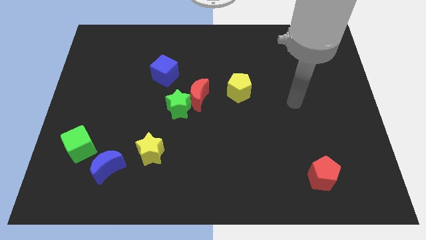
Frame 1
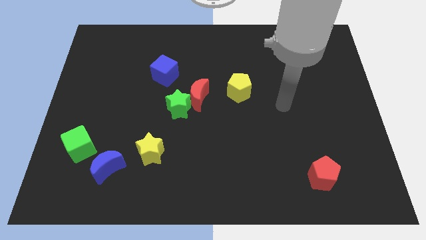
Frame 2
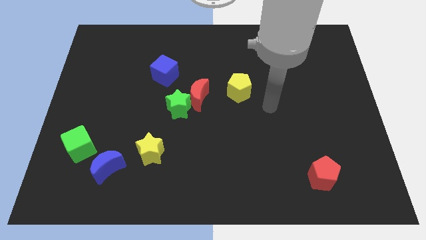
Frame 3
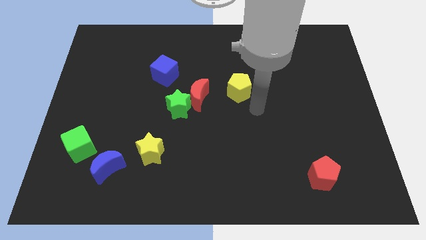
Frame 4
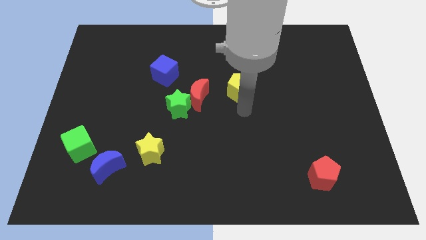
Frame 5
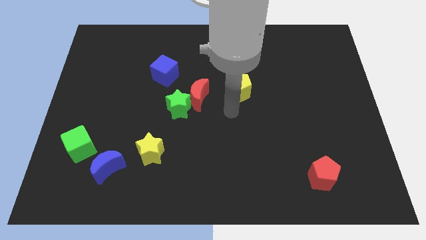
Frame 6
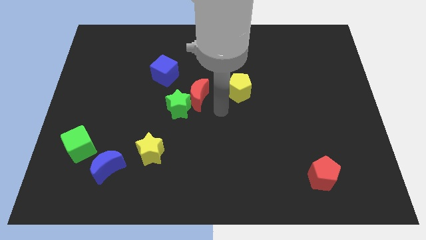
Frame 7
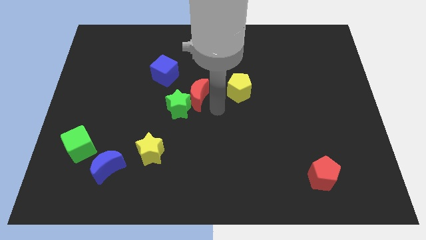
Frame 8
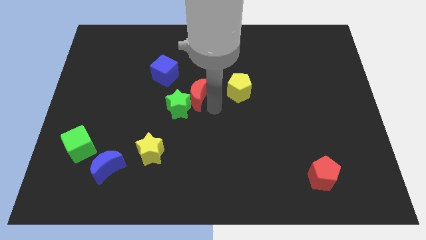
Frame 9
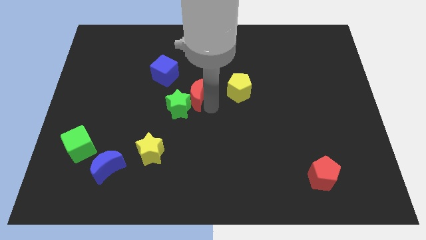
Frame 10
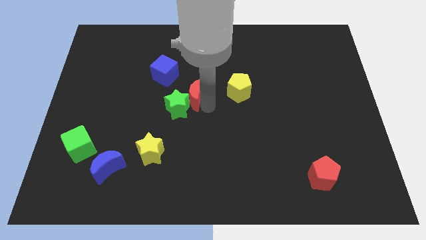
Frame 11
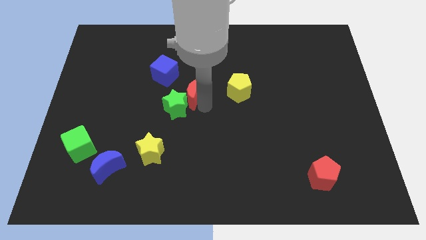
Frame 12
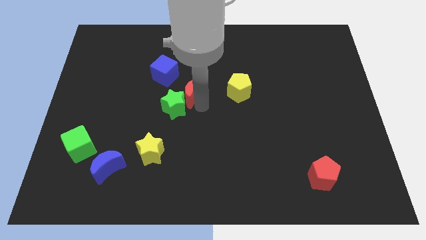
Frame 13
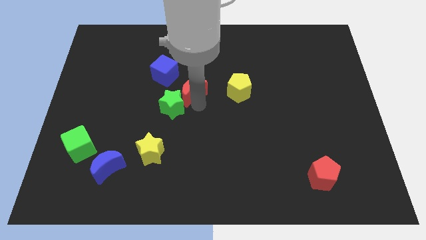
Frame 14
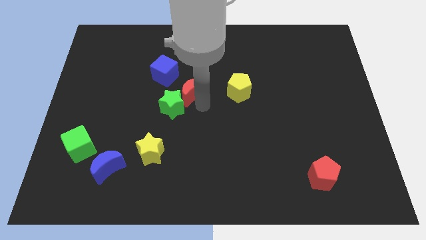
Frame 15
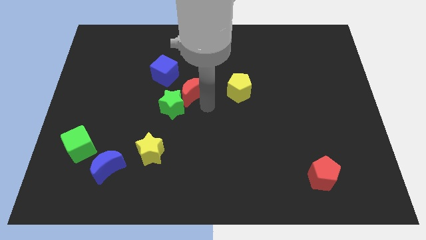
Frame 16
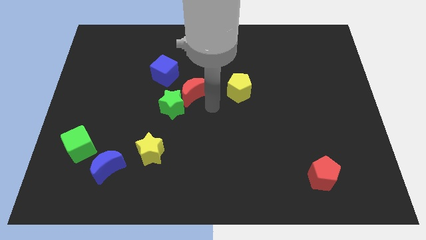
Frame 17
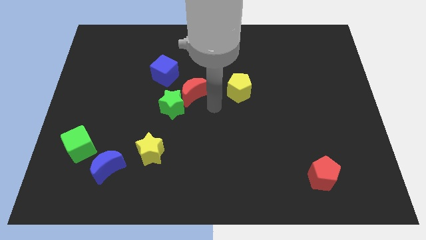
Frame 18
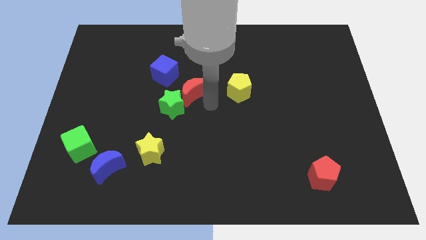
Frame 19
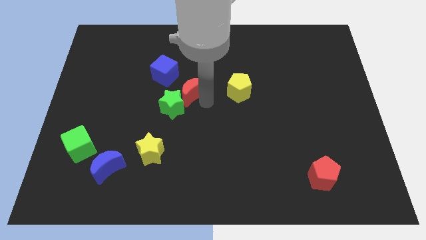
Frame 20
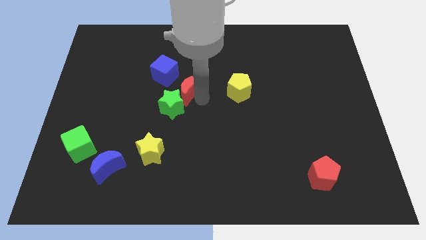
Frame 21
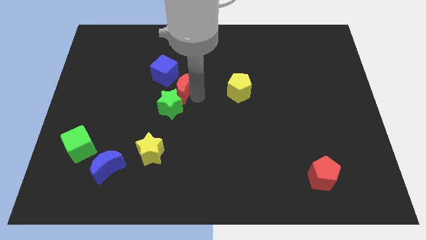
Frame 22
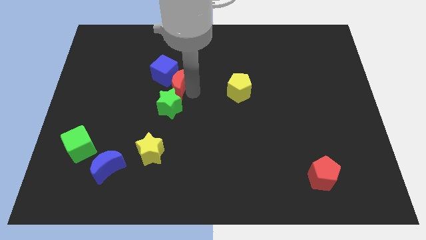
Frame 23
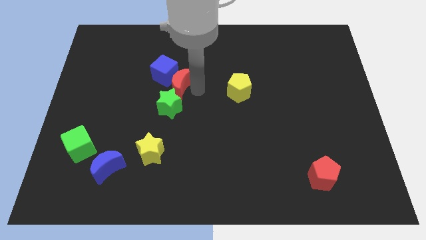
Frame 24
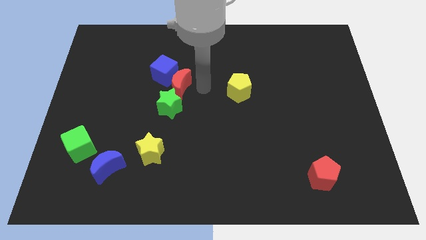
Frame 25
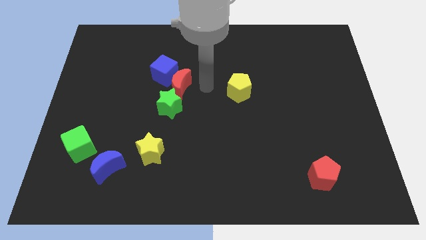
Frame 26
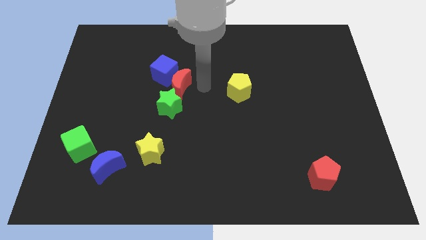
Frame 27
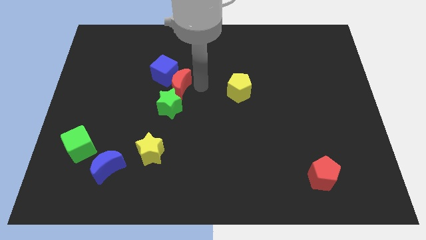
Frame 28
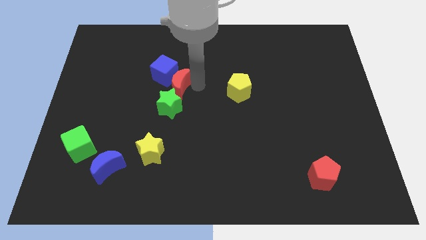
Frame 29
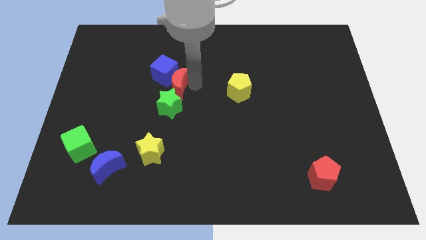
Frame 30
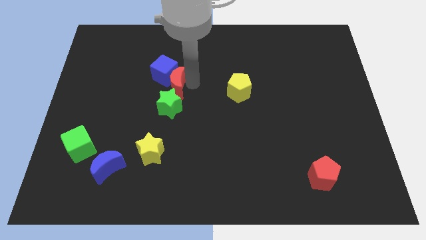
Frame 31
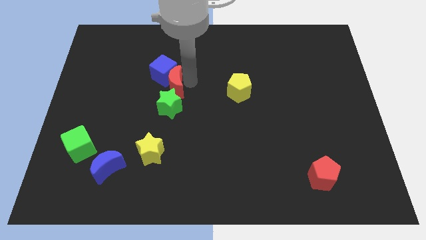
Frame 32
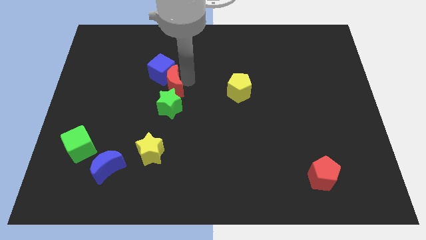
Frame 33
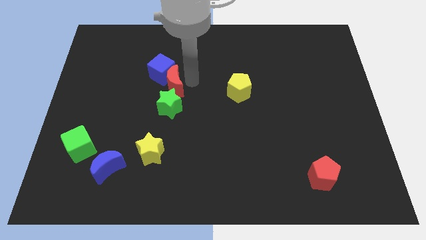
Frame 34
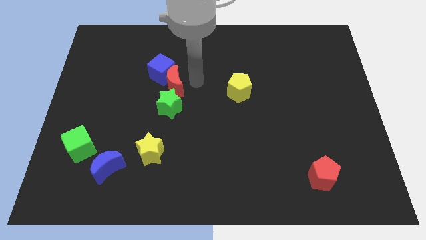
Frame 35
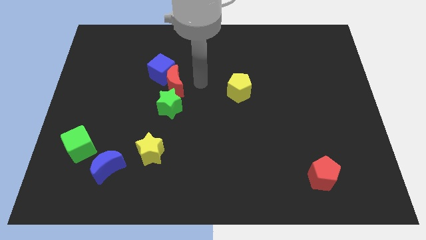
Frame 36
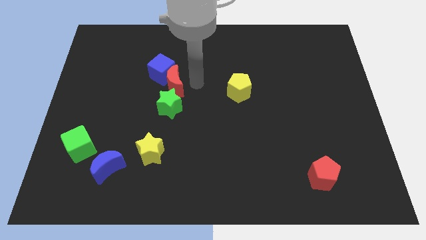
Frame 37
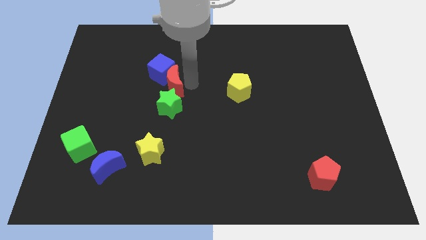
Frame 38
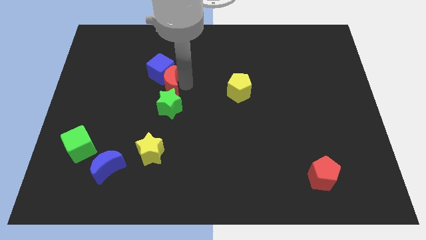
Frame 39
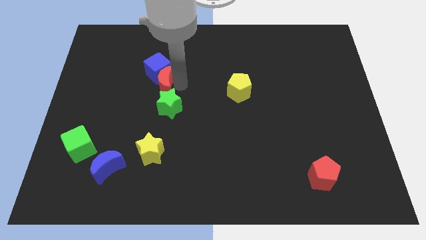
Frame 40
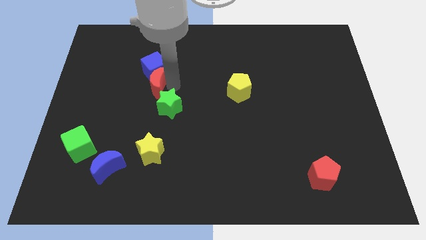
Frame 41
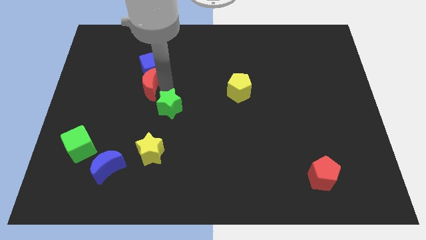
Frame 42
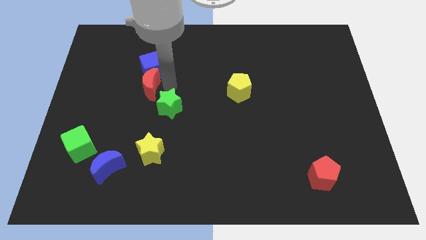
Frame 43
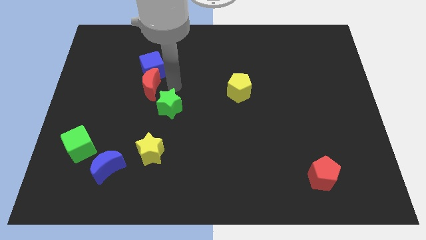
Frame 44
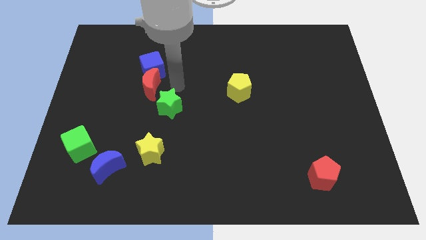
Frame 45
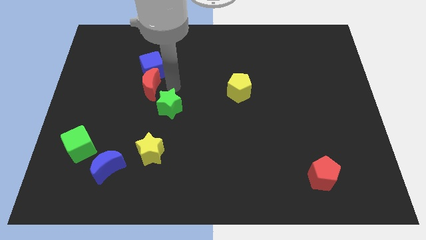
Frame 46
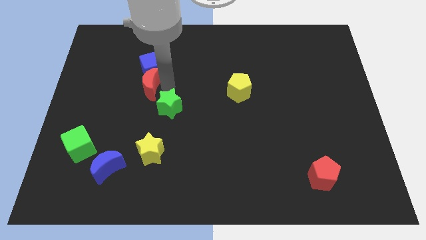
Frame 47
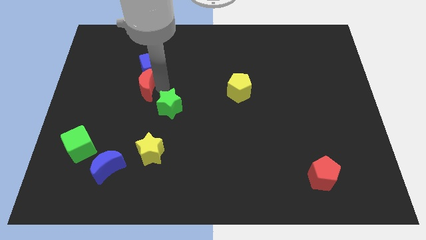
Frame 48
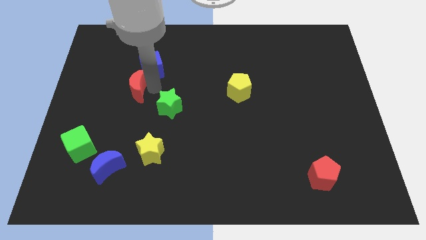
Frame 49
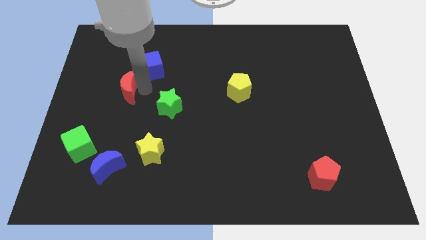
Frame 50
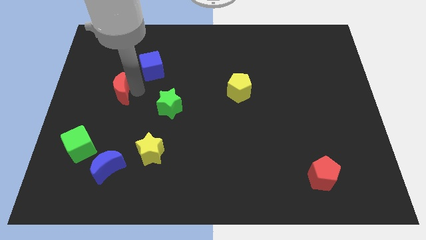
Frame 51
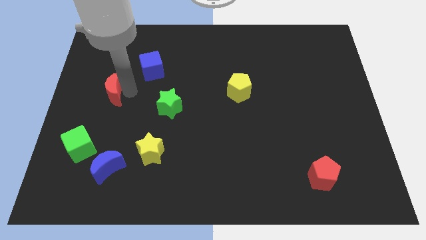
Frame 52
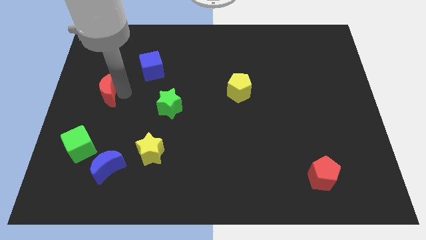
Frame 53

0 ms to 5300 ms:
push the red moon to the center left

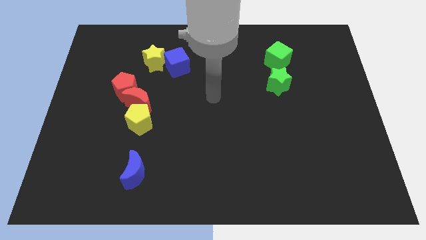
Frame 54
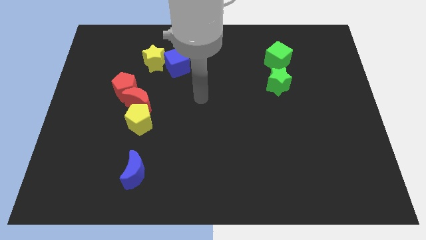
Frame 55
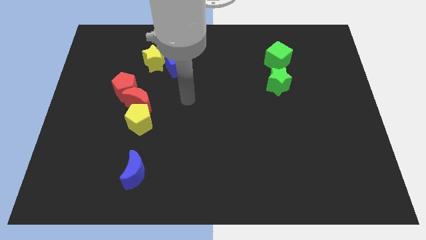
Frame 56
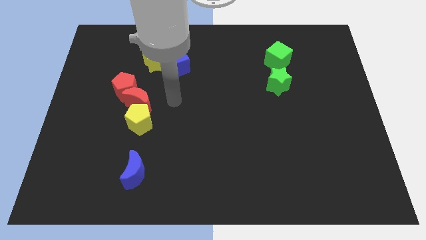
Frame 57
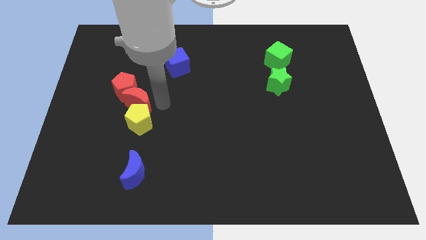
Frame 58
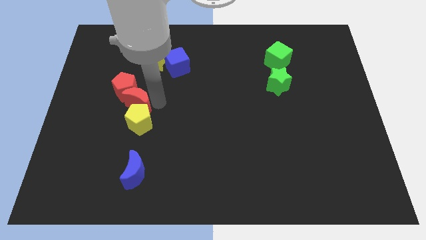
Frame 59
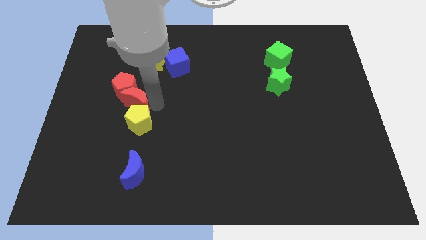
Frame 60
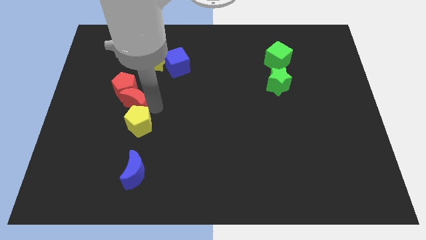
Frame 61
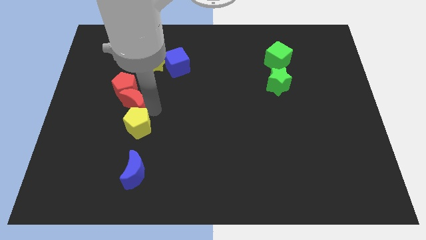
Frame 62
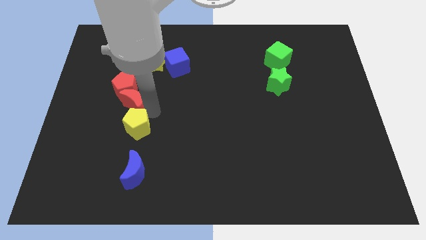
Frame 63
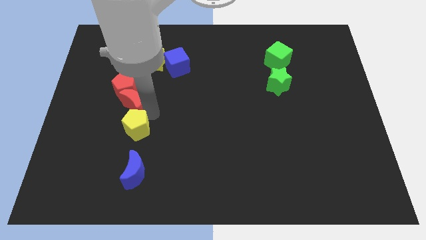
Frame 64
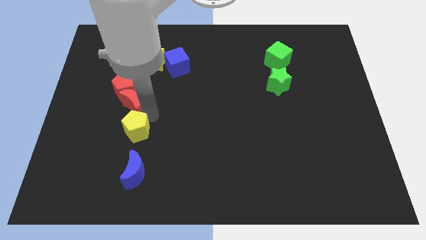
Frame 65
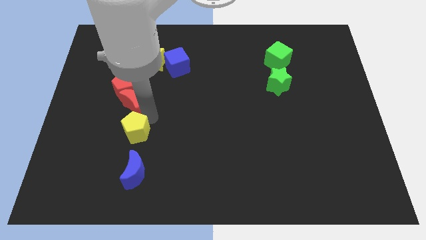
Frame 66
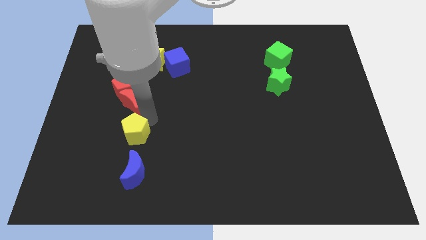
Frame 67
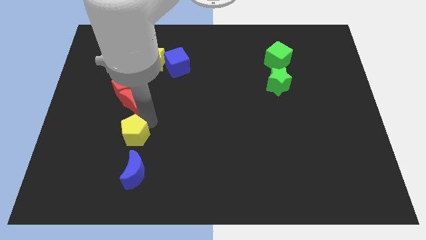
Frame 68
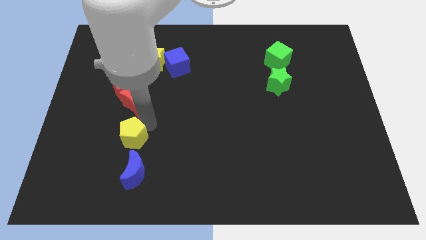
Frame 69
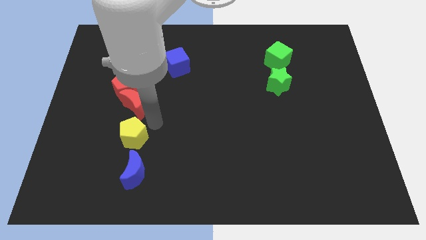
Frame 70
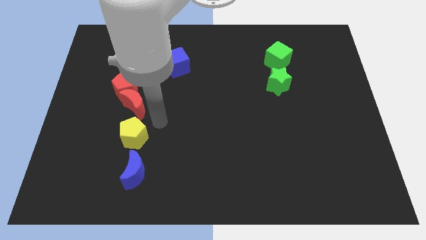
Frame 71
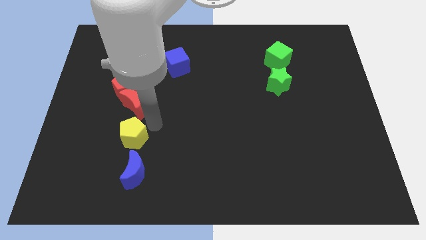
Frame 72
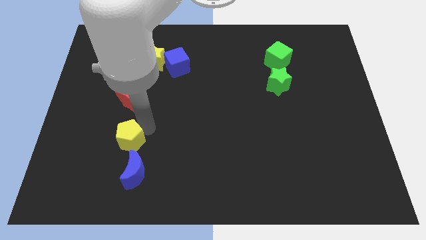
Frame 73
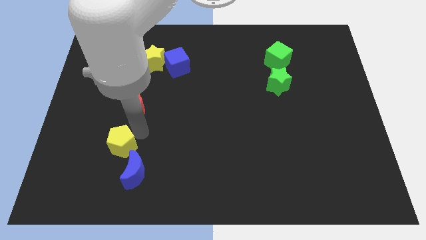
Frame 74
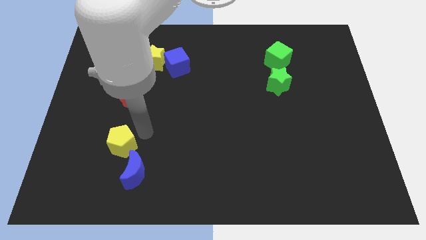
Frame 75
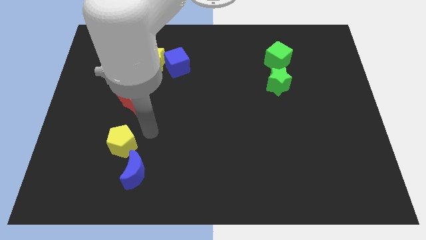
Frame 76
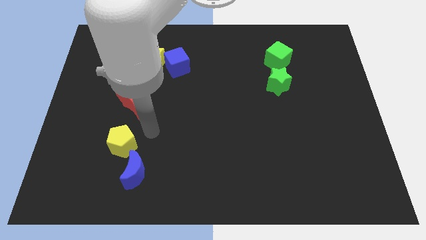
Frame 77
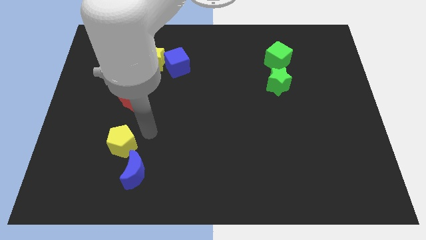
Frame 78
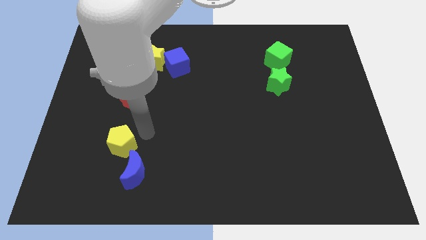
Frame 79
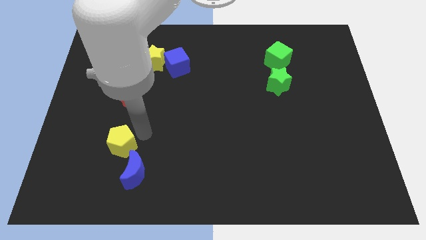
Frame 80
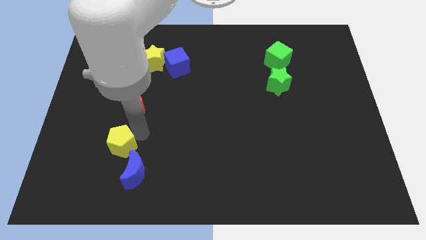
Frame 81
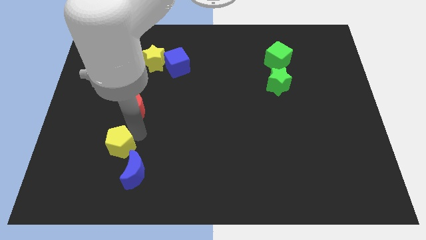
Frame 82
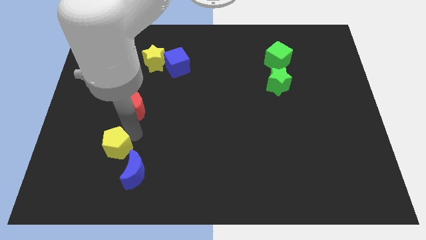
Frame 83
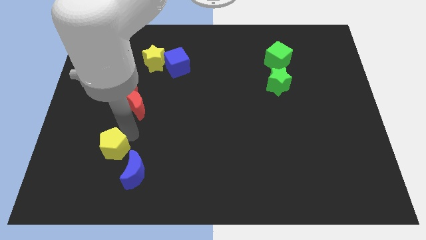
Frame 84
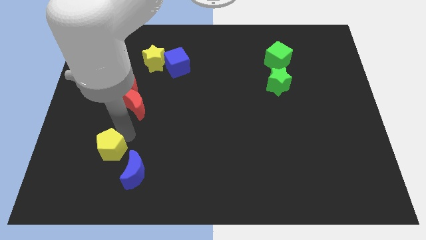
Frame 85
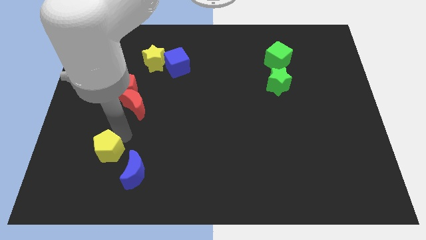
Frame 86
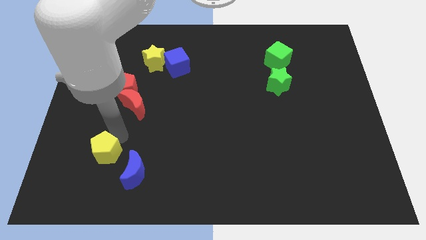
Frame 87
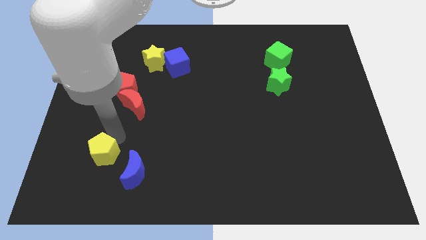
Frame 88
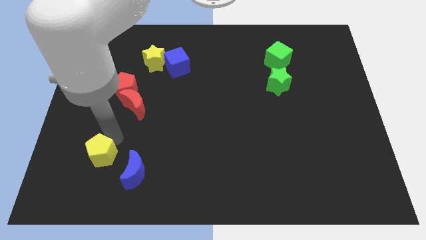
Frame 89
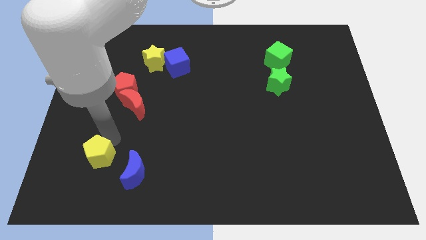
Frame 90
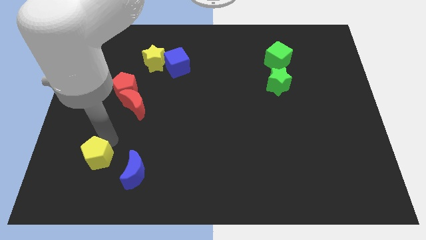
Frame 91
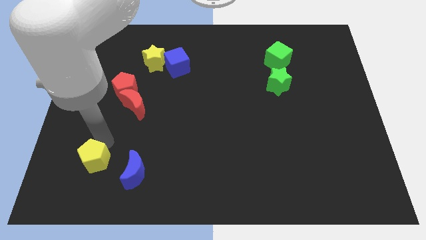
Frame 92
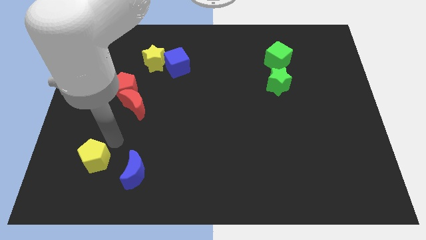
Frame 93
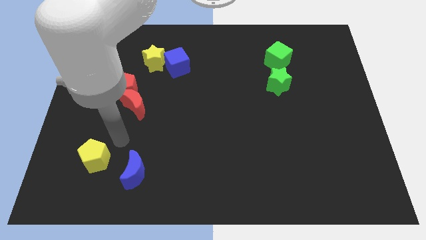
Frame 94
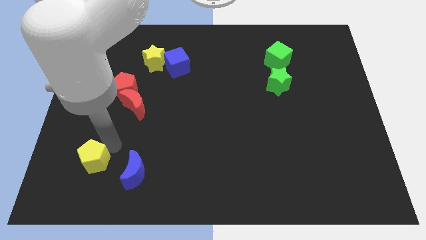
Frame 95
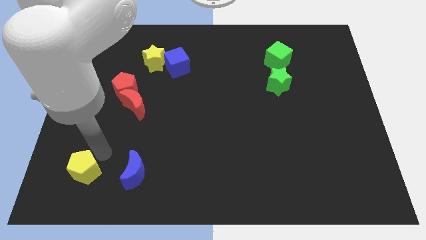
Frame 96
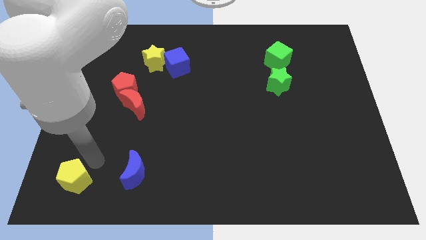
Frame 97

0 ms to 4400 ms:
slide the yellow pentagon to the bottom left
